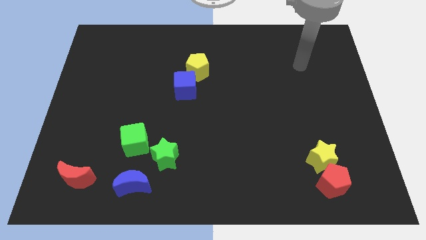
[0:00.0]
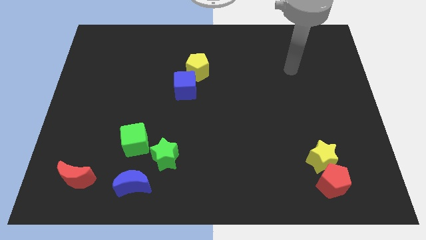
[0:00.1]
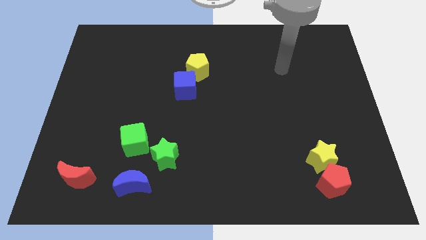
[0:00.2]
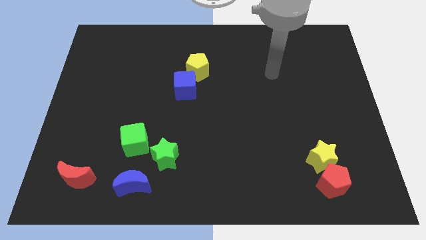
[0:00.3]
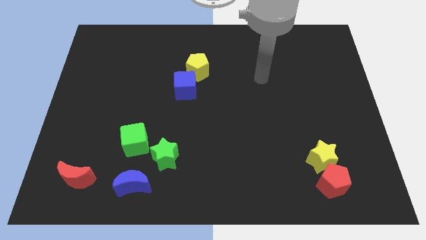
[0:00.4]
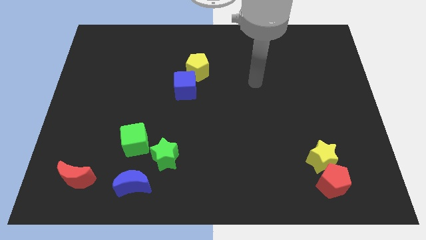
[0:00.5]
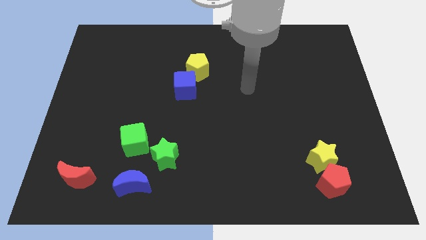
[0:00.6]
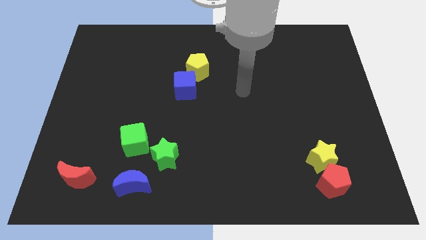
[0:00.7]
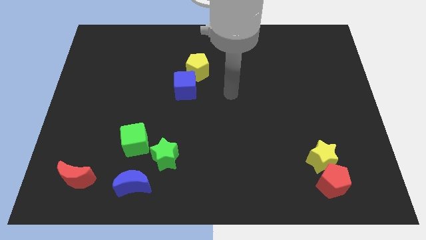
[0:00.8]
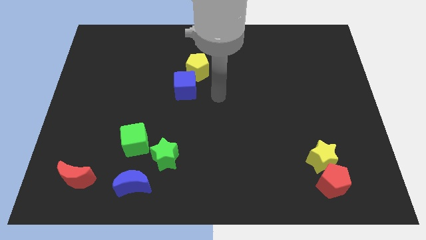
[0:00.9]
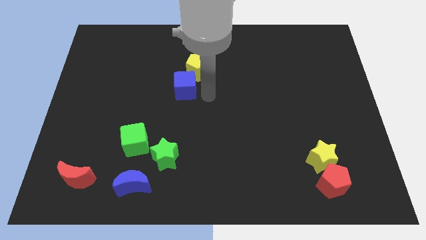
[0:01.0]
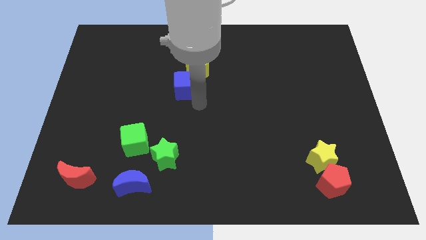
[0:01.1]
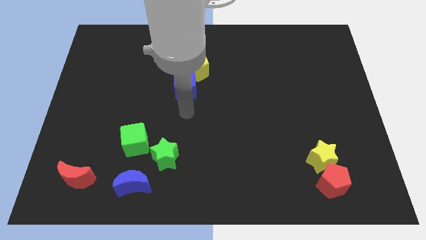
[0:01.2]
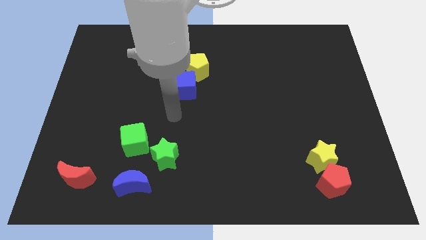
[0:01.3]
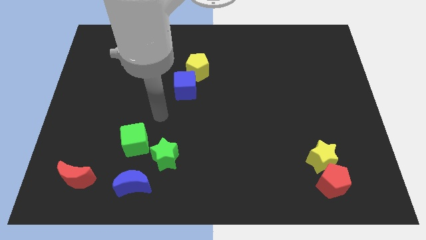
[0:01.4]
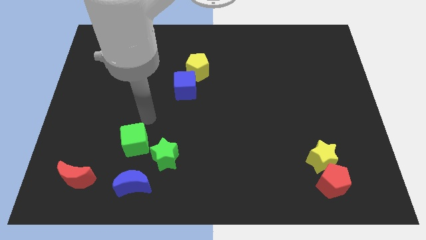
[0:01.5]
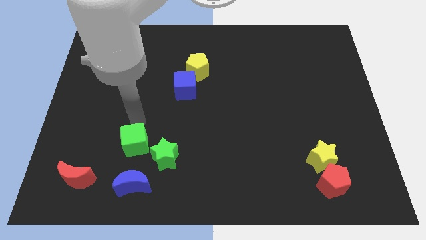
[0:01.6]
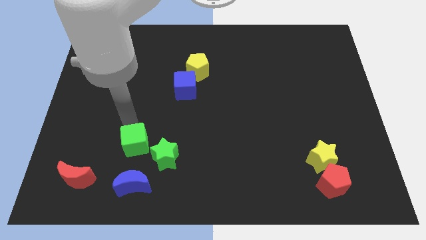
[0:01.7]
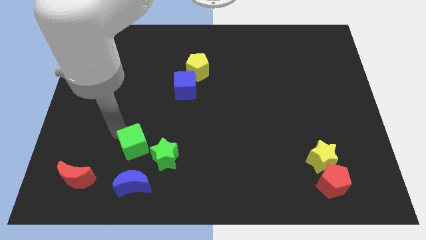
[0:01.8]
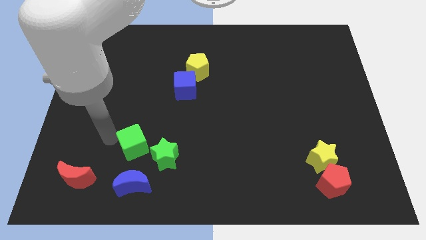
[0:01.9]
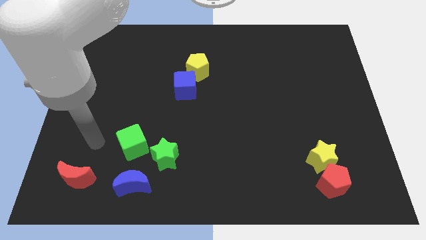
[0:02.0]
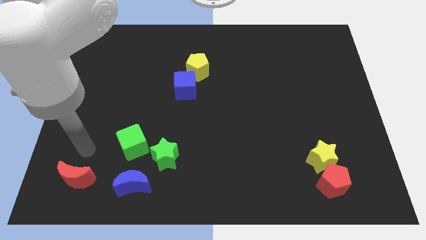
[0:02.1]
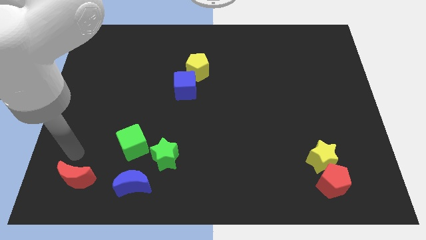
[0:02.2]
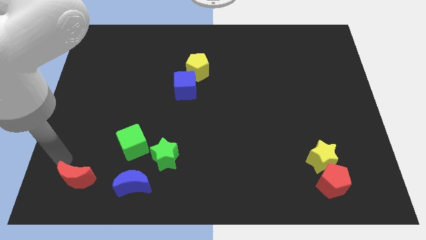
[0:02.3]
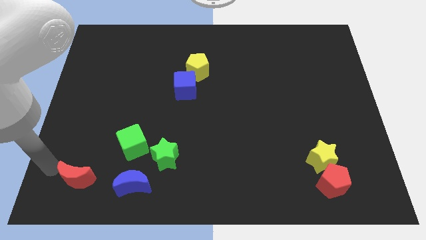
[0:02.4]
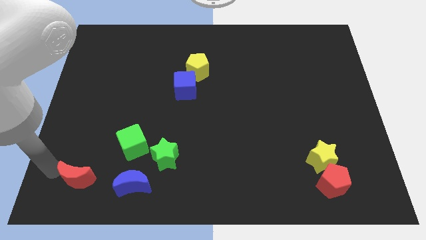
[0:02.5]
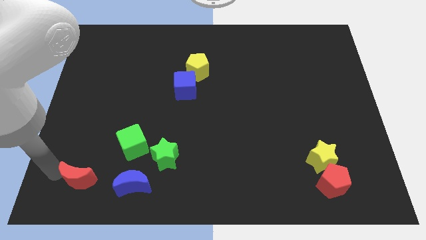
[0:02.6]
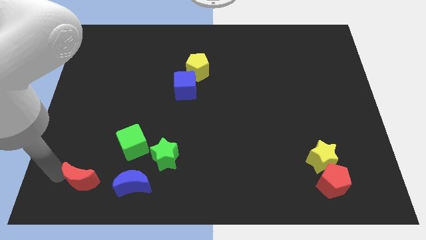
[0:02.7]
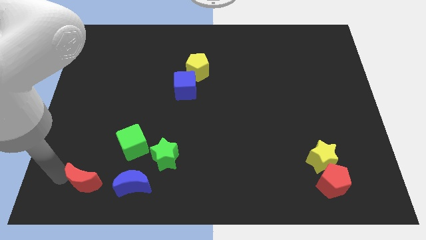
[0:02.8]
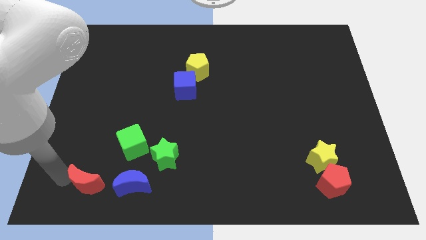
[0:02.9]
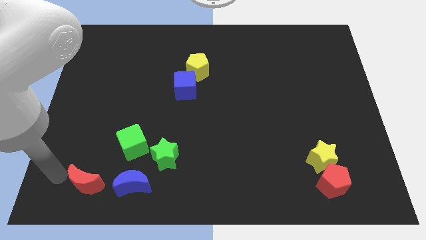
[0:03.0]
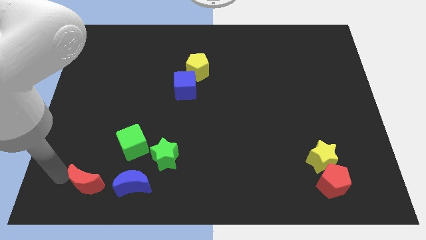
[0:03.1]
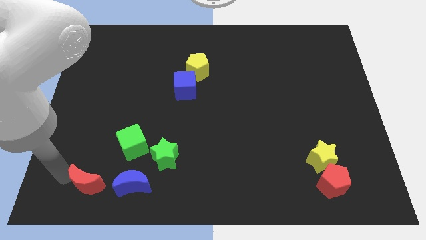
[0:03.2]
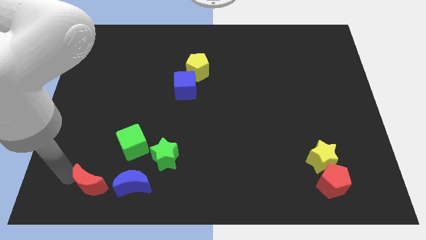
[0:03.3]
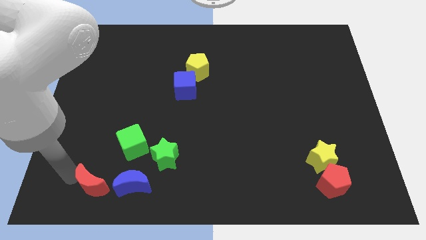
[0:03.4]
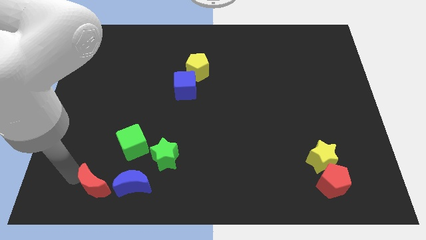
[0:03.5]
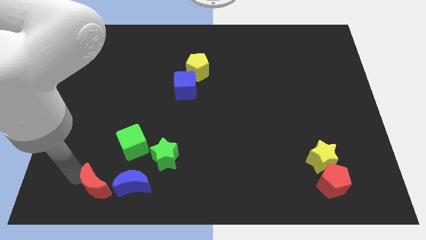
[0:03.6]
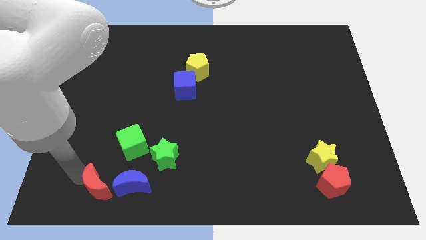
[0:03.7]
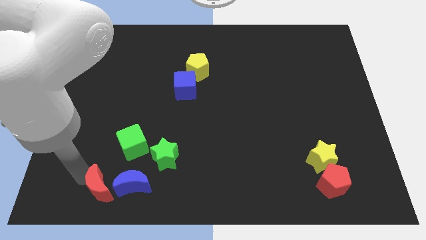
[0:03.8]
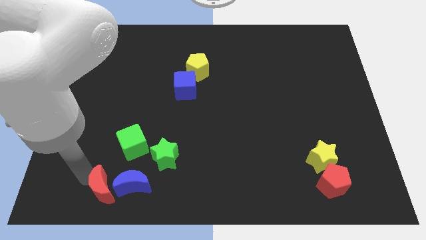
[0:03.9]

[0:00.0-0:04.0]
put the red moon towards the blue moon

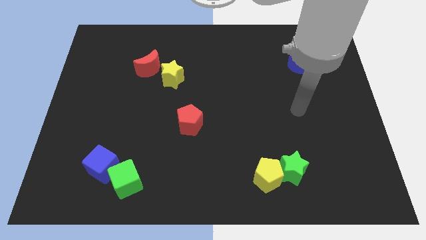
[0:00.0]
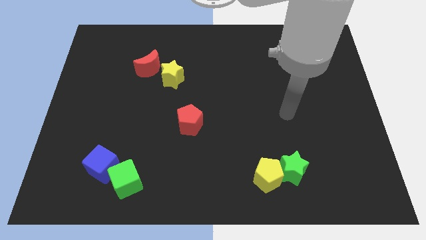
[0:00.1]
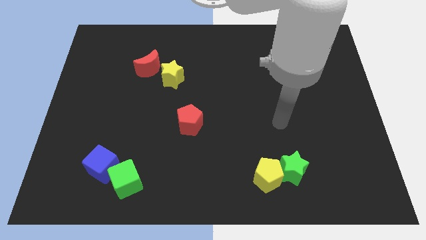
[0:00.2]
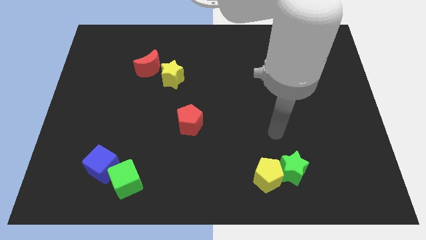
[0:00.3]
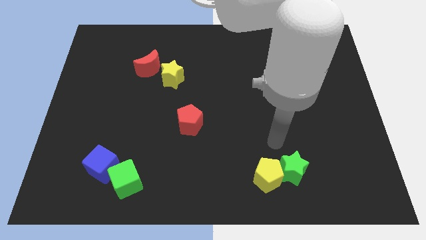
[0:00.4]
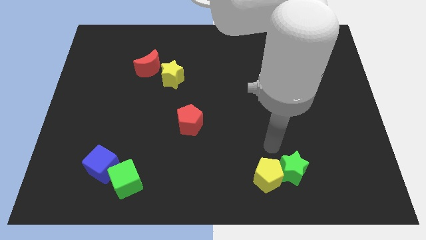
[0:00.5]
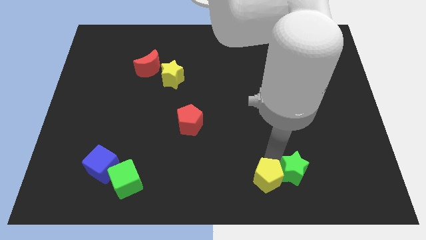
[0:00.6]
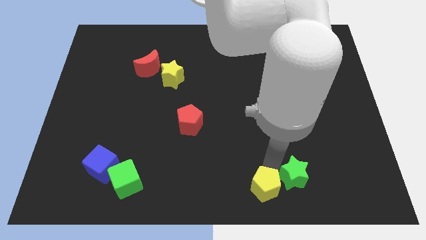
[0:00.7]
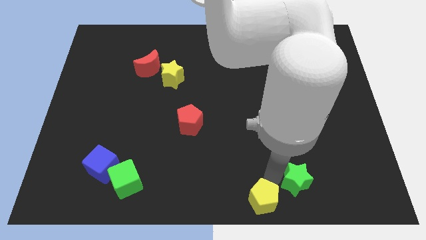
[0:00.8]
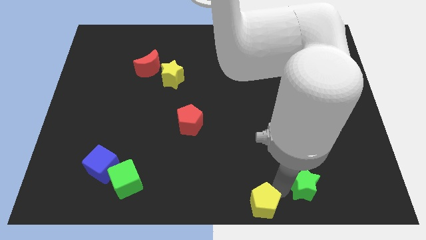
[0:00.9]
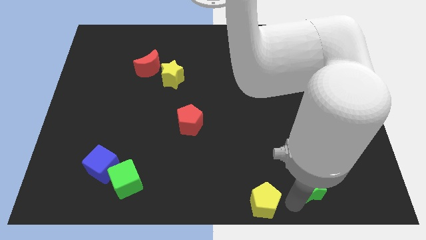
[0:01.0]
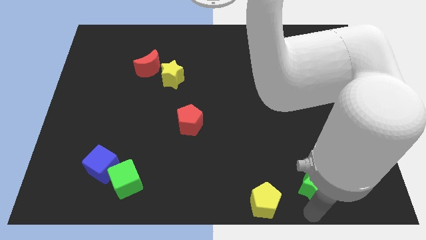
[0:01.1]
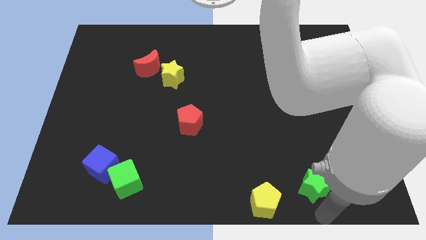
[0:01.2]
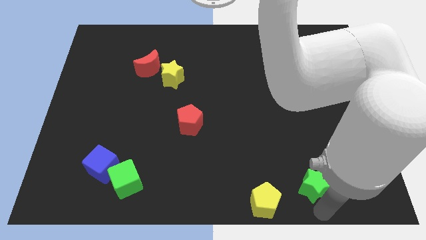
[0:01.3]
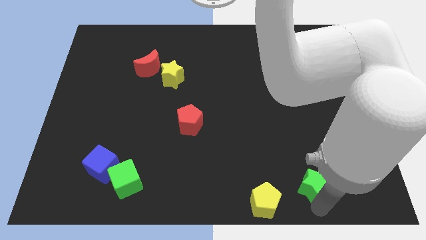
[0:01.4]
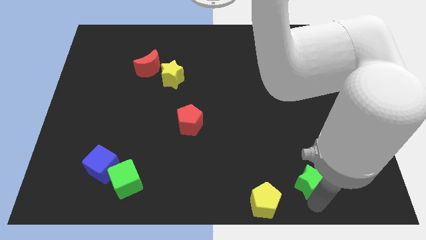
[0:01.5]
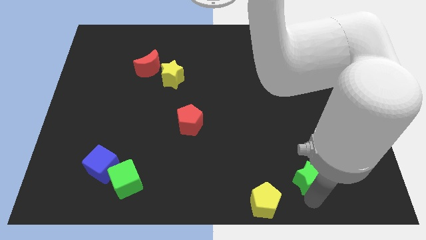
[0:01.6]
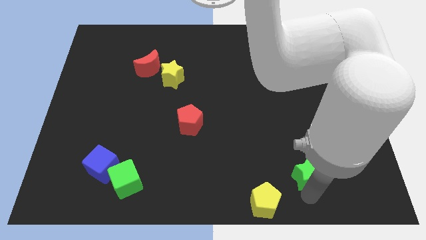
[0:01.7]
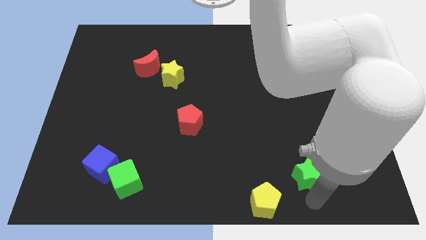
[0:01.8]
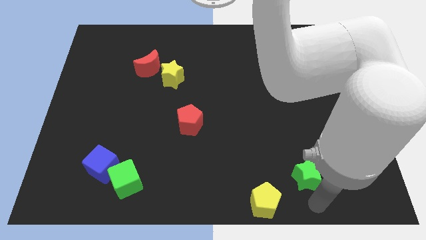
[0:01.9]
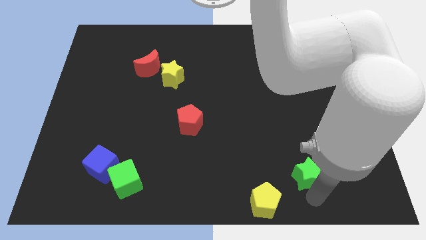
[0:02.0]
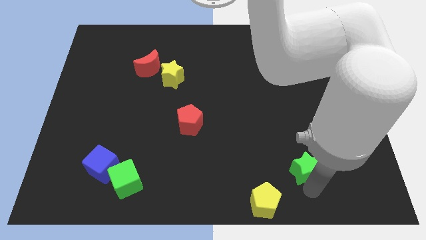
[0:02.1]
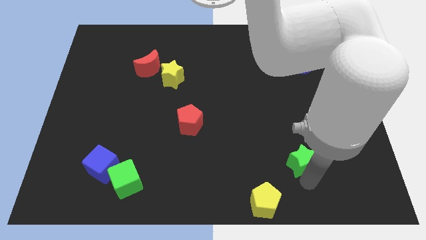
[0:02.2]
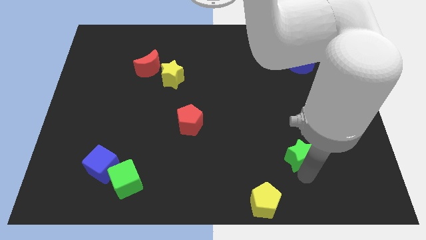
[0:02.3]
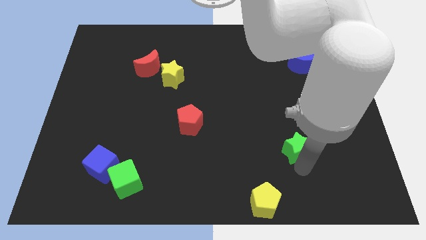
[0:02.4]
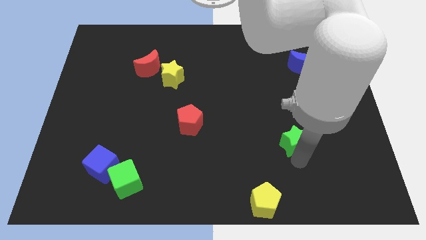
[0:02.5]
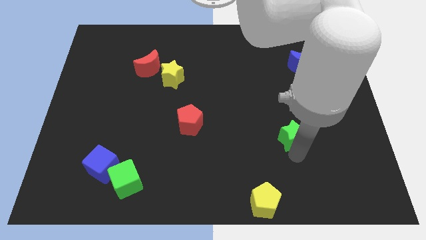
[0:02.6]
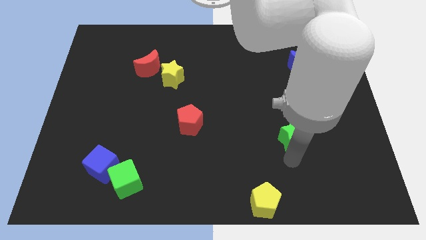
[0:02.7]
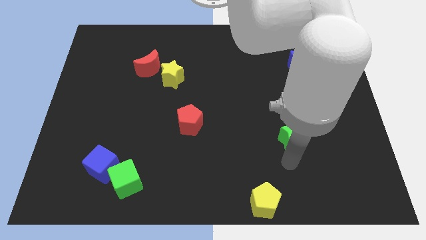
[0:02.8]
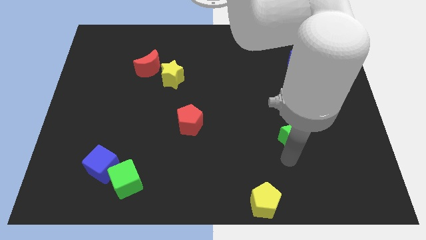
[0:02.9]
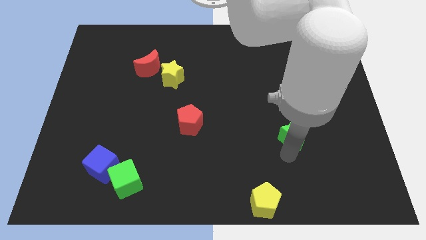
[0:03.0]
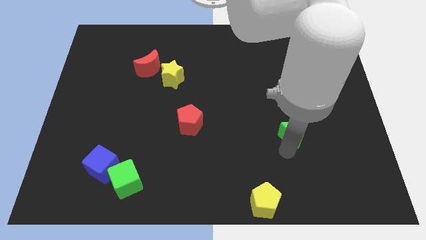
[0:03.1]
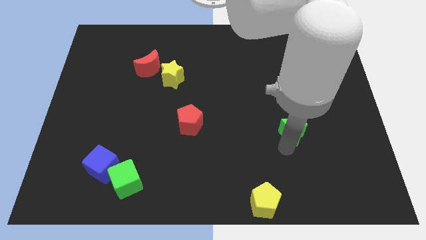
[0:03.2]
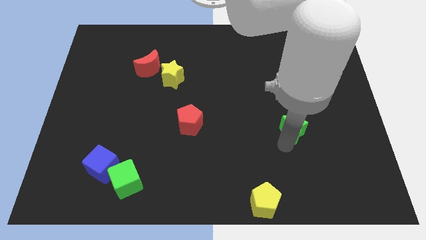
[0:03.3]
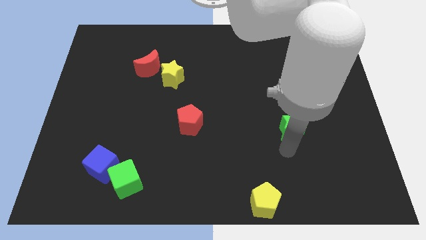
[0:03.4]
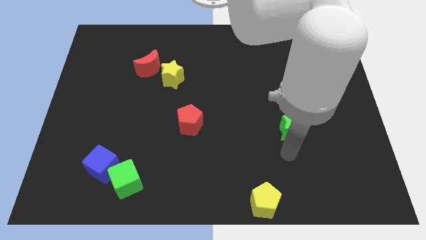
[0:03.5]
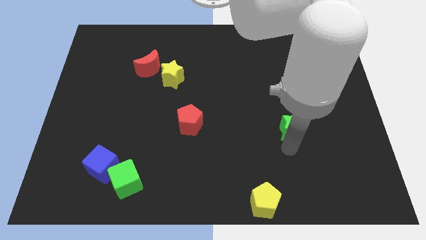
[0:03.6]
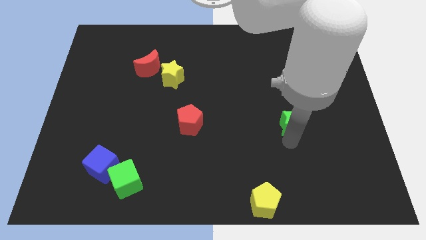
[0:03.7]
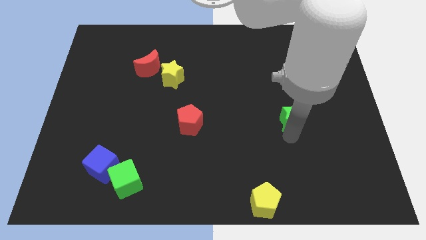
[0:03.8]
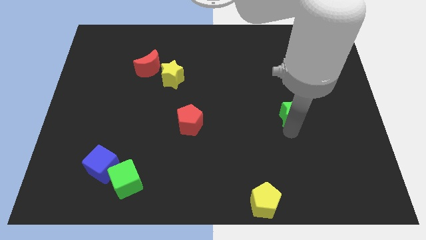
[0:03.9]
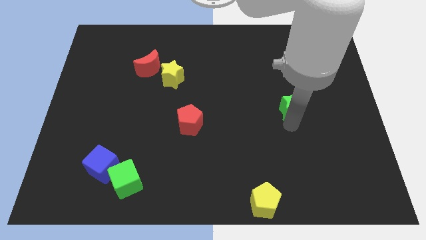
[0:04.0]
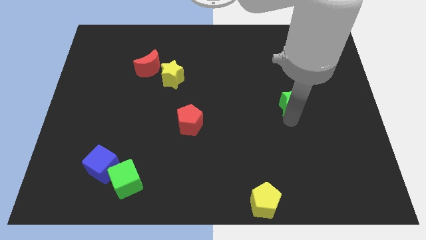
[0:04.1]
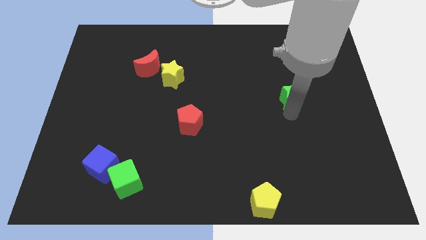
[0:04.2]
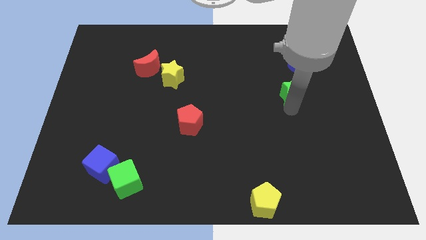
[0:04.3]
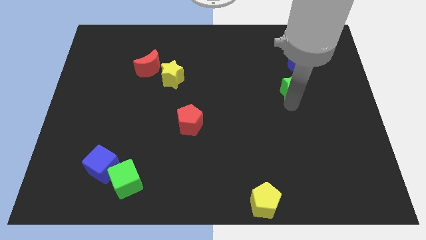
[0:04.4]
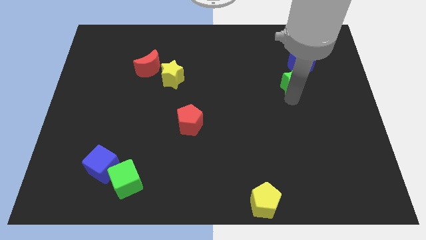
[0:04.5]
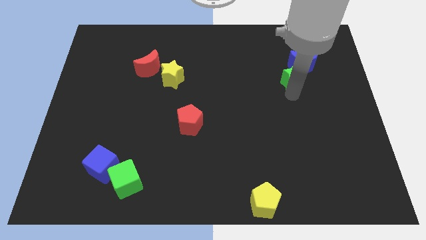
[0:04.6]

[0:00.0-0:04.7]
move the green star towards the blue moon
